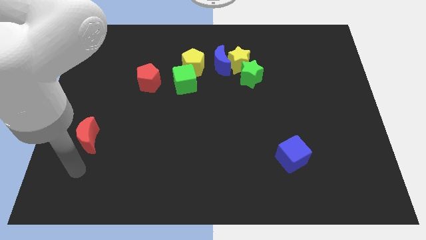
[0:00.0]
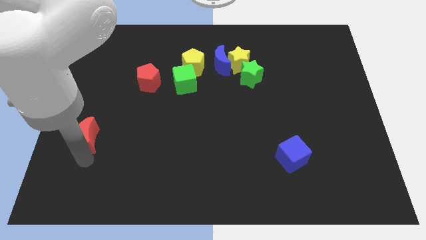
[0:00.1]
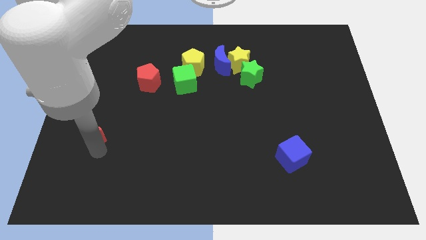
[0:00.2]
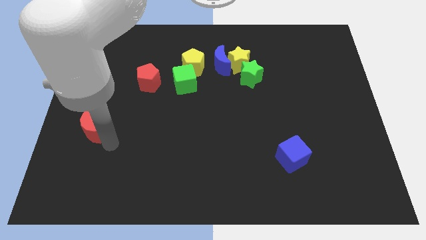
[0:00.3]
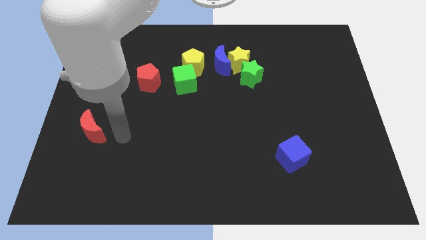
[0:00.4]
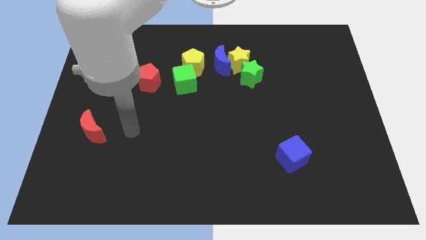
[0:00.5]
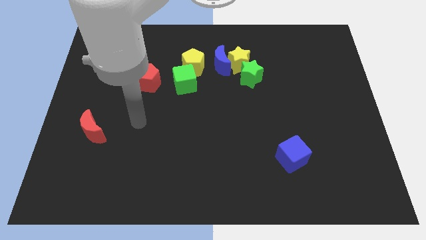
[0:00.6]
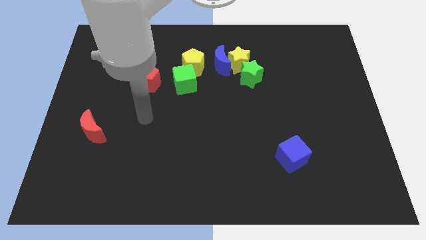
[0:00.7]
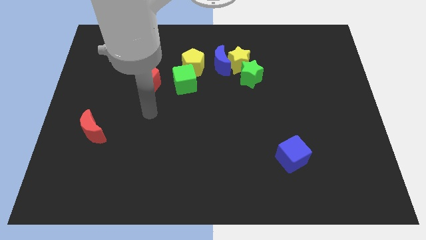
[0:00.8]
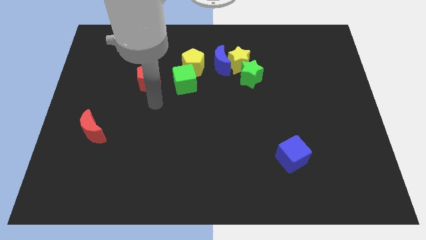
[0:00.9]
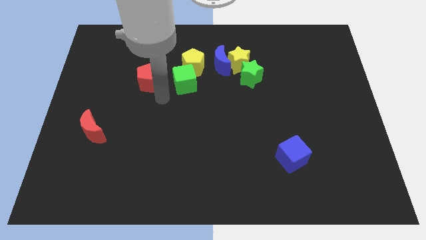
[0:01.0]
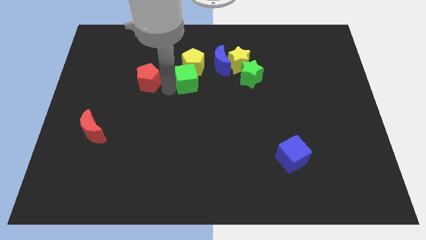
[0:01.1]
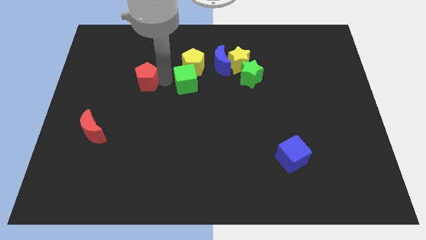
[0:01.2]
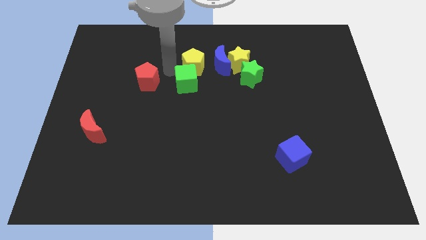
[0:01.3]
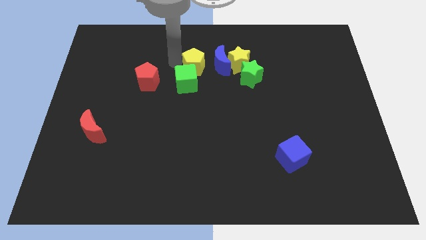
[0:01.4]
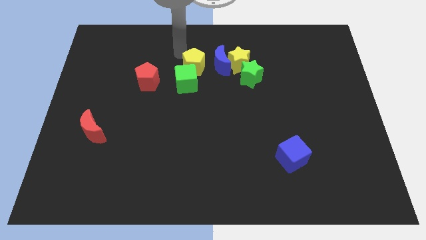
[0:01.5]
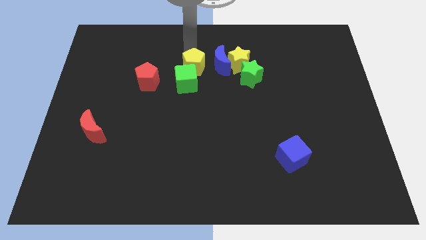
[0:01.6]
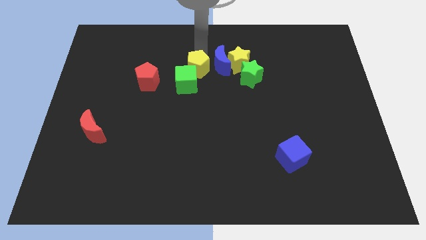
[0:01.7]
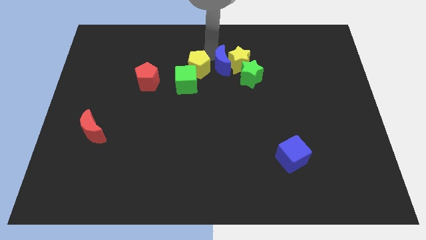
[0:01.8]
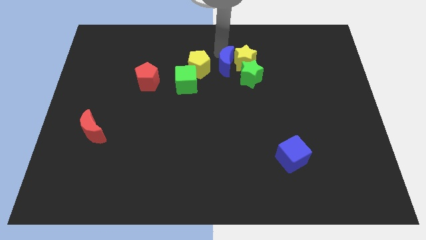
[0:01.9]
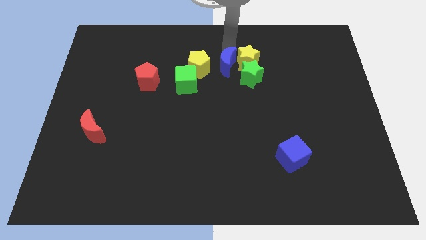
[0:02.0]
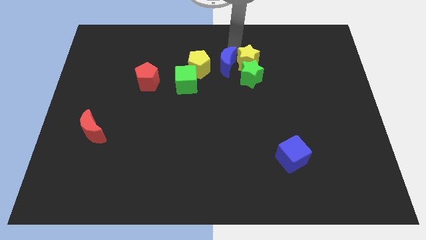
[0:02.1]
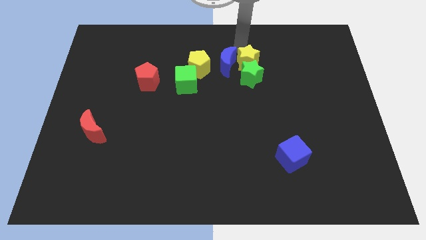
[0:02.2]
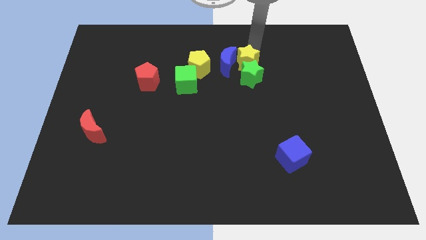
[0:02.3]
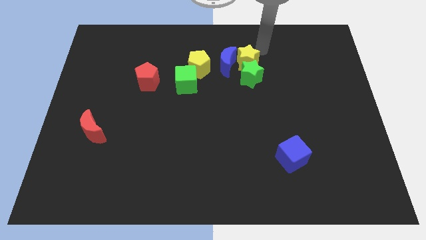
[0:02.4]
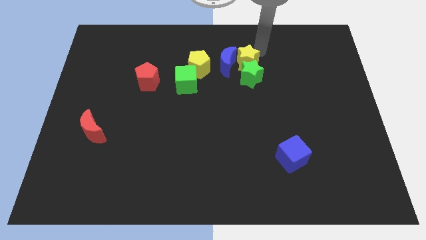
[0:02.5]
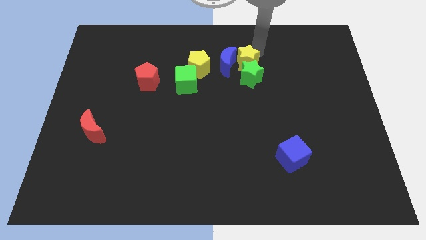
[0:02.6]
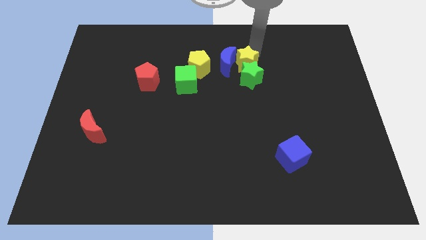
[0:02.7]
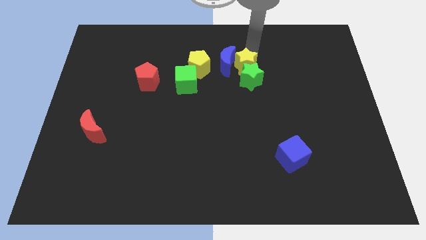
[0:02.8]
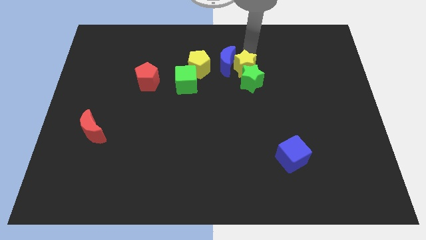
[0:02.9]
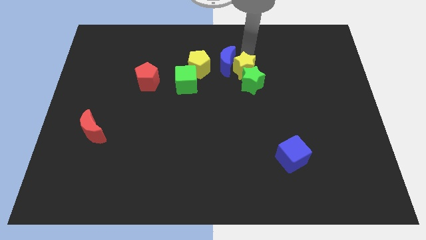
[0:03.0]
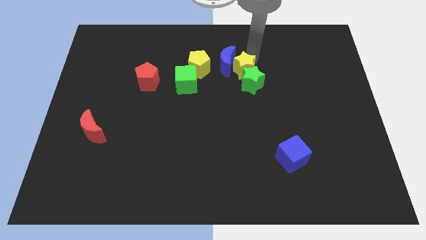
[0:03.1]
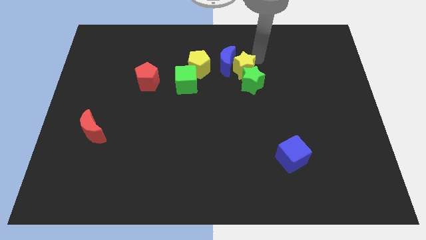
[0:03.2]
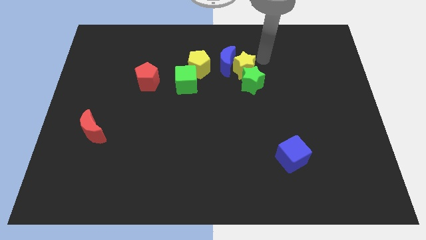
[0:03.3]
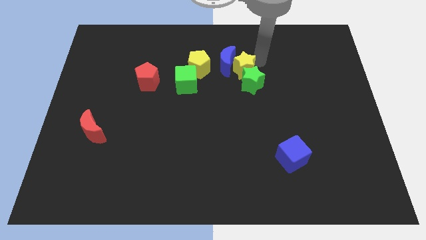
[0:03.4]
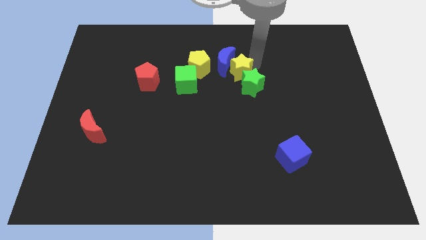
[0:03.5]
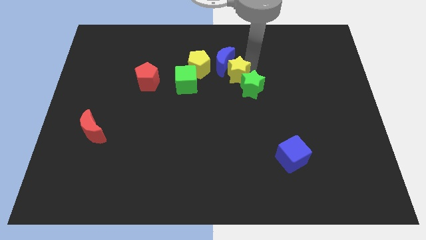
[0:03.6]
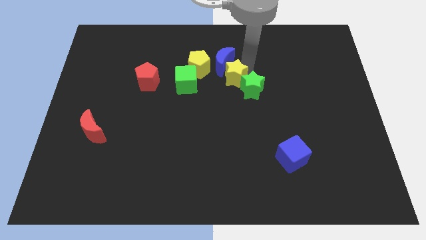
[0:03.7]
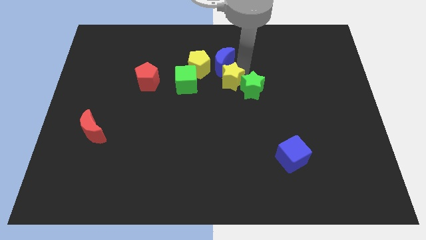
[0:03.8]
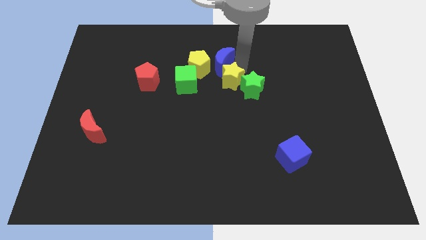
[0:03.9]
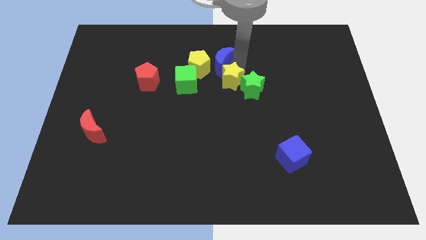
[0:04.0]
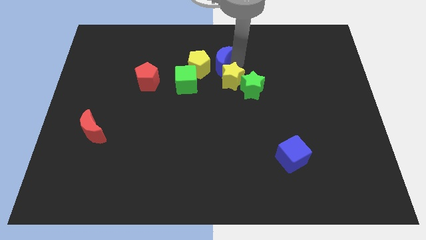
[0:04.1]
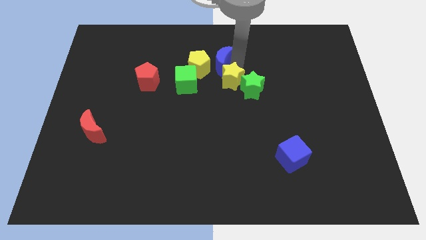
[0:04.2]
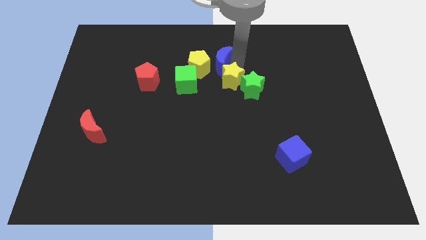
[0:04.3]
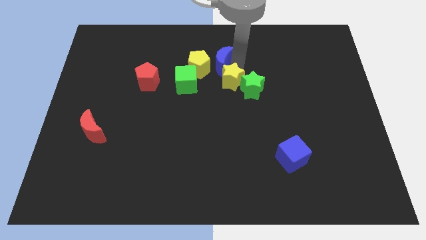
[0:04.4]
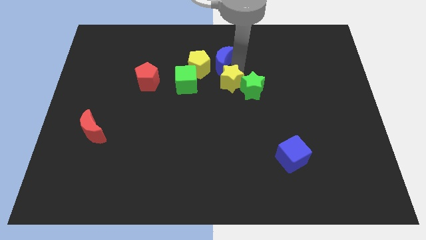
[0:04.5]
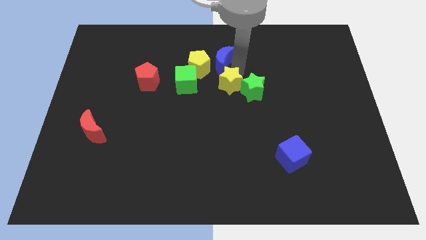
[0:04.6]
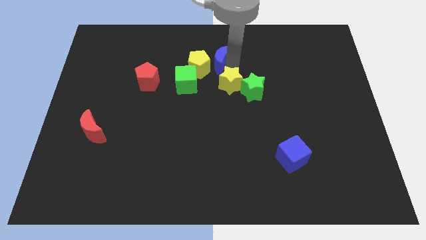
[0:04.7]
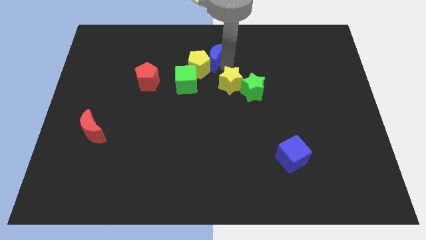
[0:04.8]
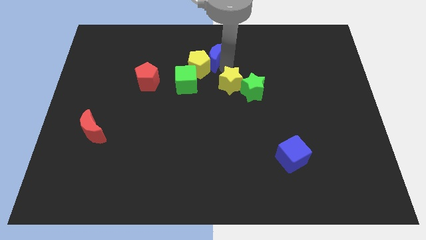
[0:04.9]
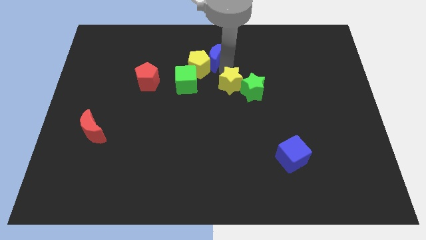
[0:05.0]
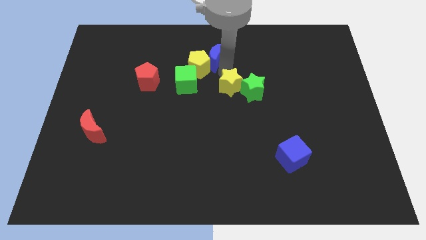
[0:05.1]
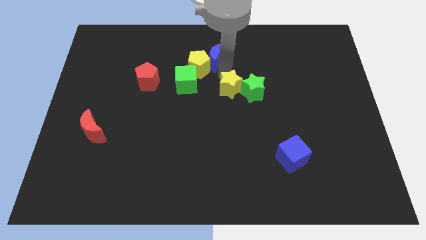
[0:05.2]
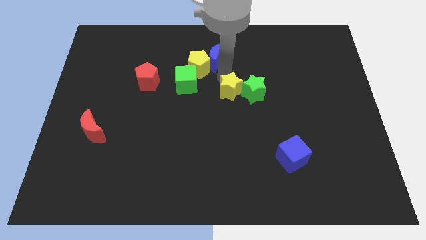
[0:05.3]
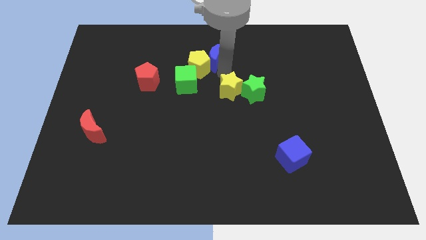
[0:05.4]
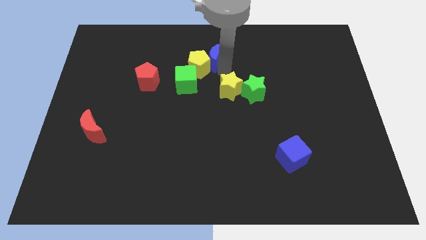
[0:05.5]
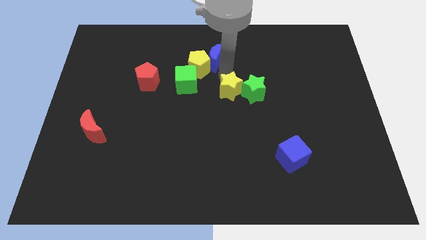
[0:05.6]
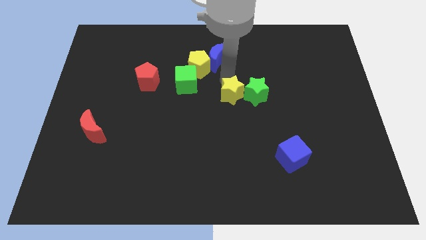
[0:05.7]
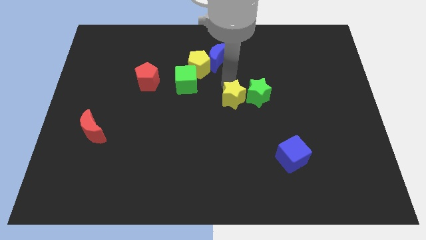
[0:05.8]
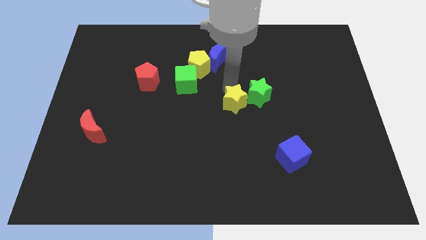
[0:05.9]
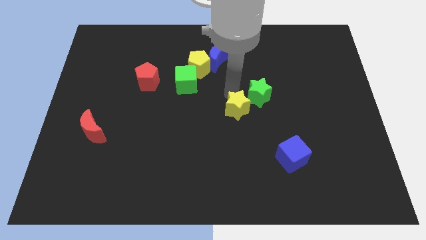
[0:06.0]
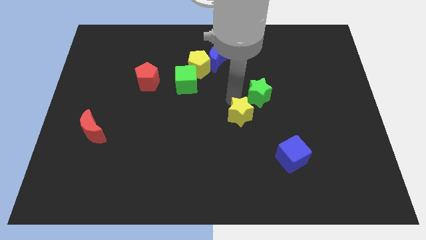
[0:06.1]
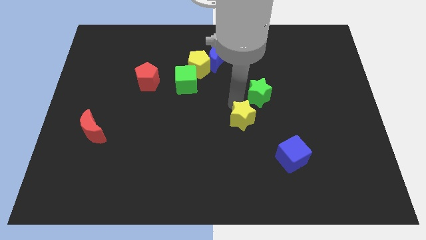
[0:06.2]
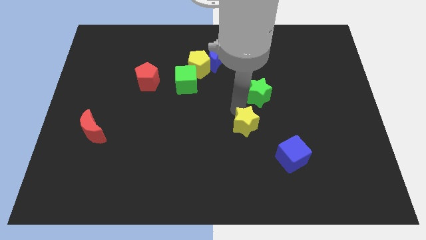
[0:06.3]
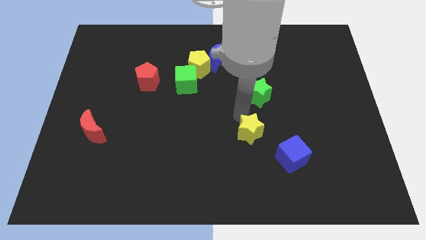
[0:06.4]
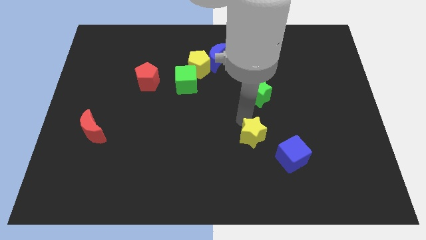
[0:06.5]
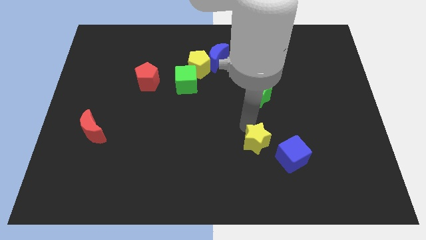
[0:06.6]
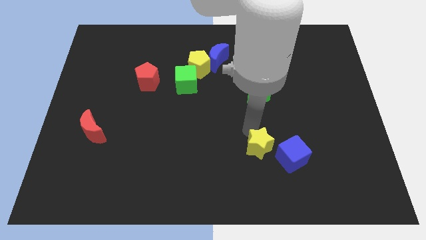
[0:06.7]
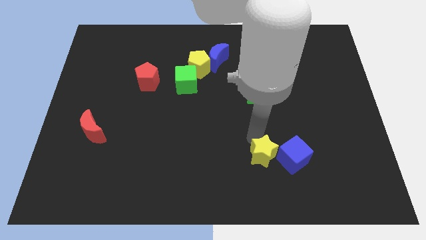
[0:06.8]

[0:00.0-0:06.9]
put the yellow star to the bottom left of the blue cube

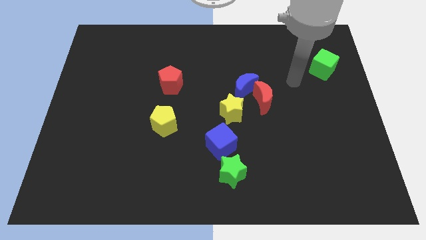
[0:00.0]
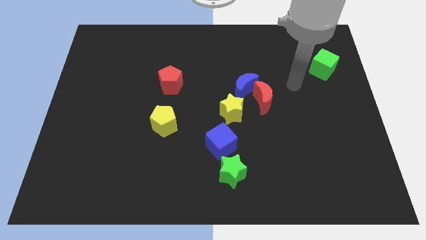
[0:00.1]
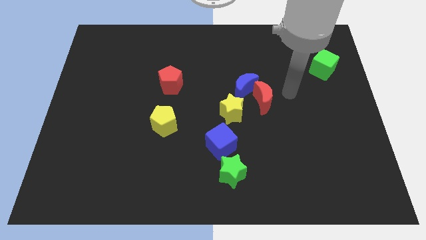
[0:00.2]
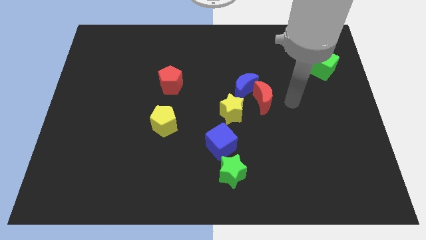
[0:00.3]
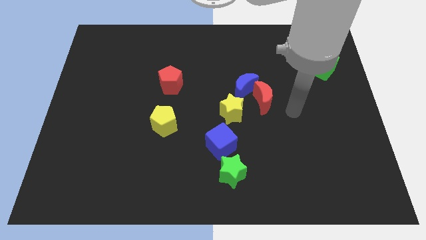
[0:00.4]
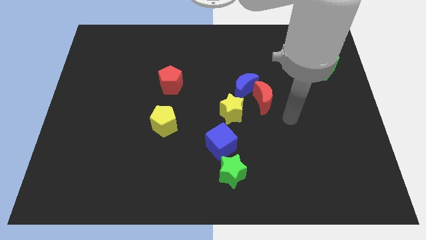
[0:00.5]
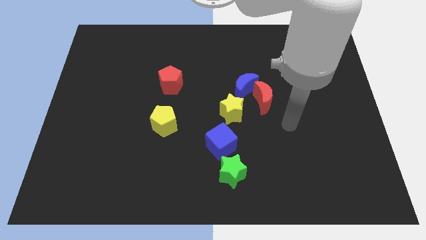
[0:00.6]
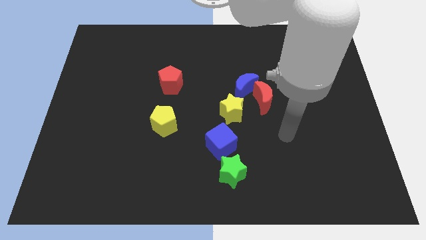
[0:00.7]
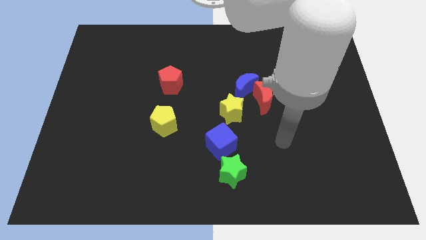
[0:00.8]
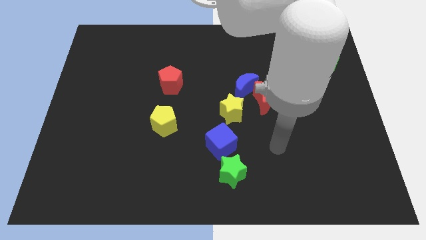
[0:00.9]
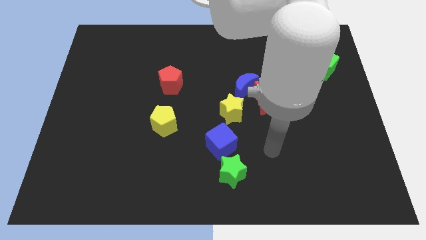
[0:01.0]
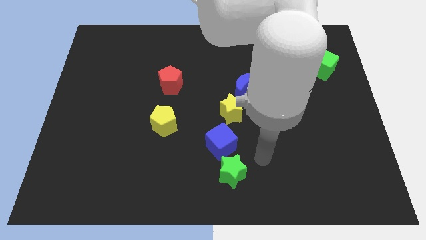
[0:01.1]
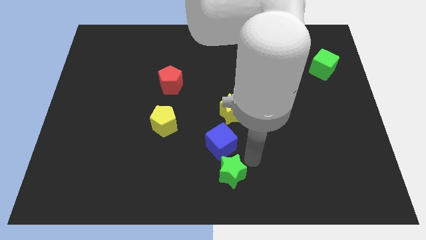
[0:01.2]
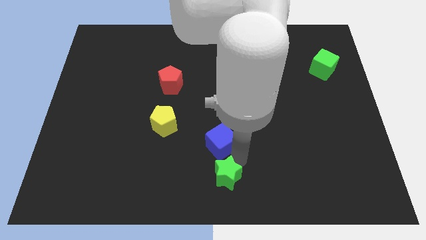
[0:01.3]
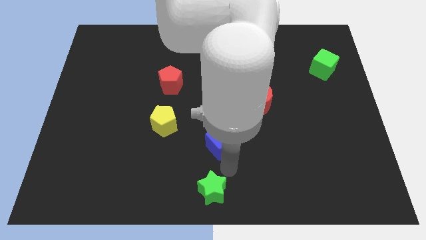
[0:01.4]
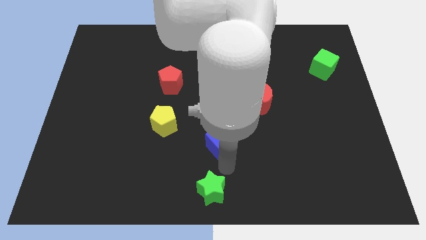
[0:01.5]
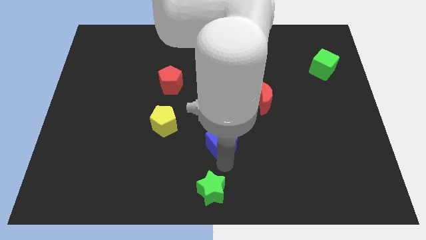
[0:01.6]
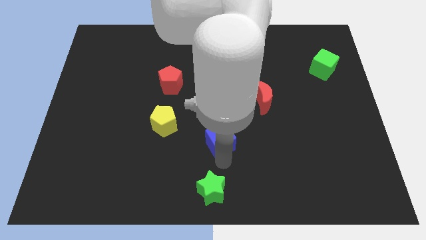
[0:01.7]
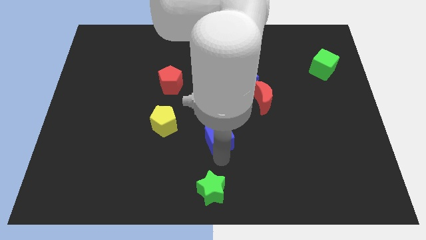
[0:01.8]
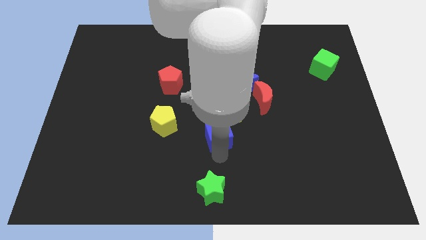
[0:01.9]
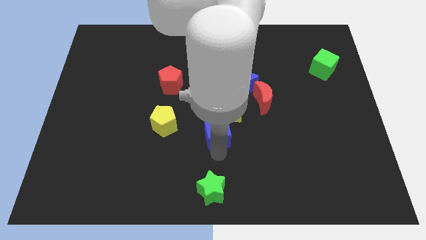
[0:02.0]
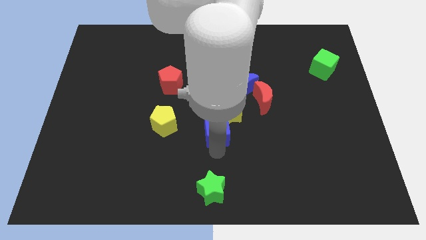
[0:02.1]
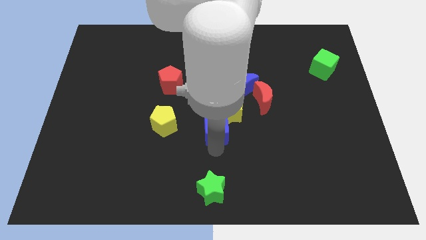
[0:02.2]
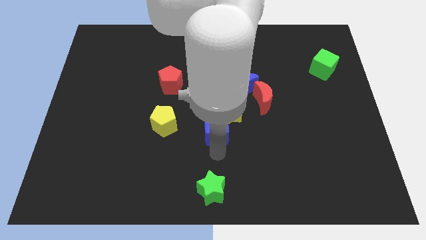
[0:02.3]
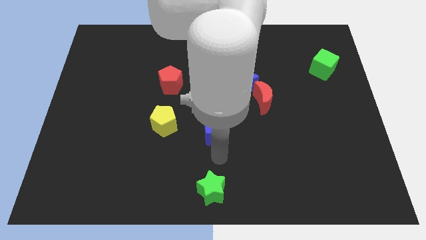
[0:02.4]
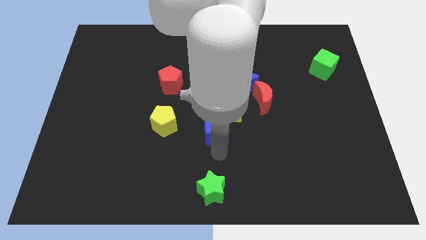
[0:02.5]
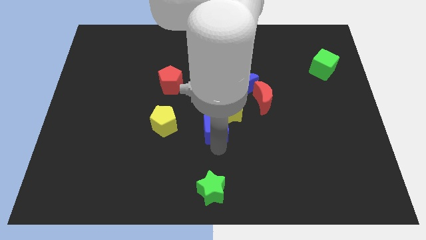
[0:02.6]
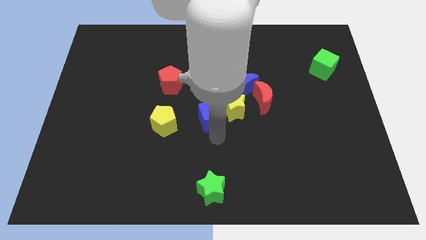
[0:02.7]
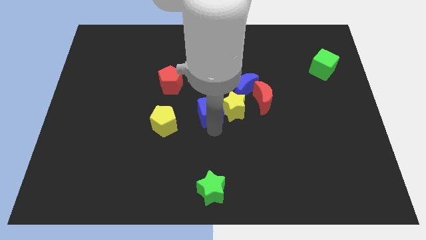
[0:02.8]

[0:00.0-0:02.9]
put the blue cube to the top left side of the yellow star
